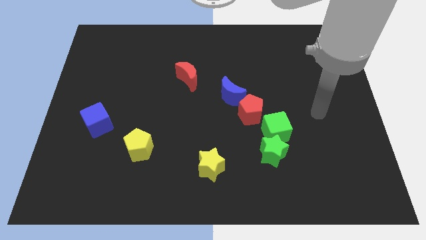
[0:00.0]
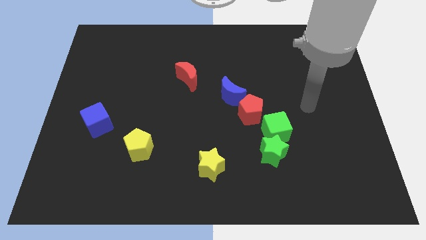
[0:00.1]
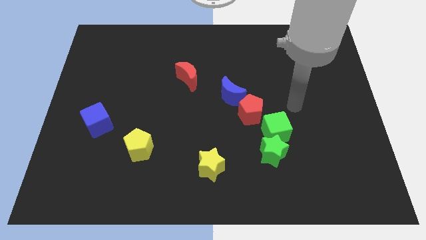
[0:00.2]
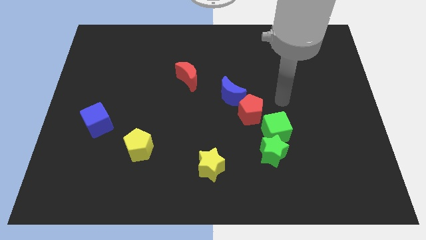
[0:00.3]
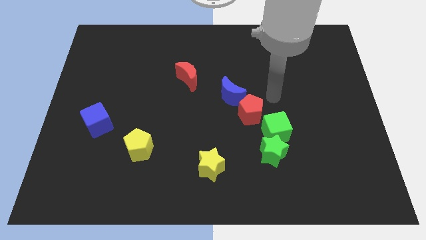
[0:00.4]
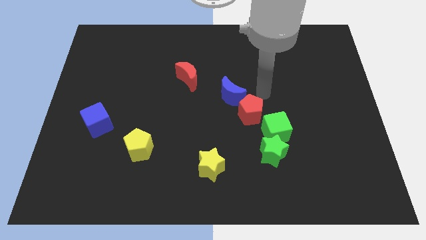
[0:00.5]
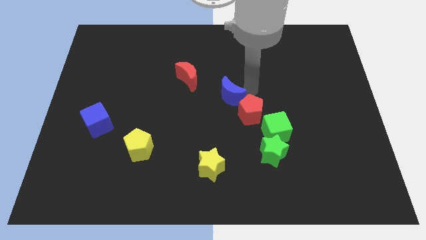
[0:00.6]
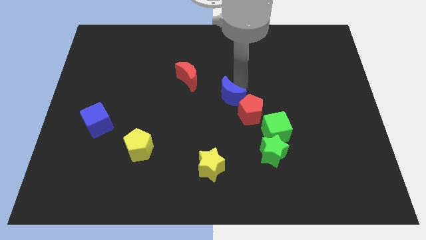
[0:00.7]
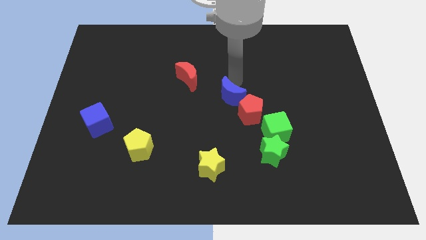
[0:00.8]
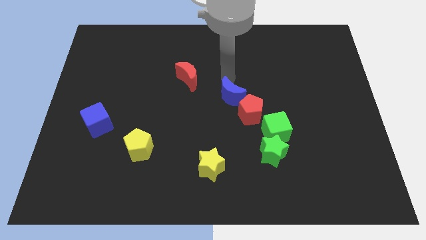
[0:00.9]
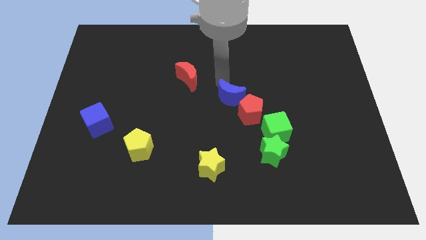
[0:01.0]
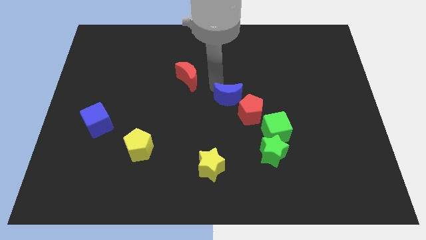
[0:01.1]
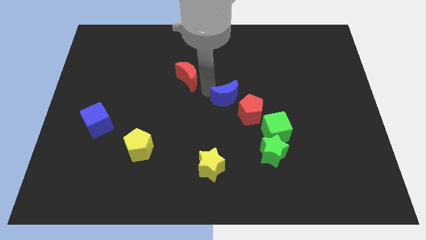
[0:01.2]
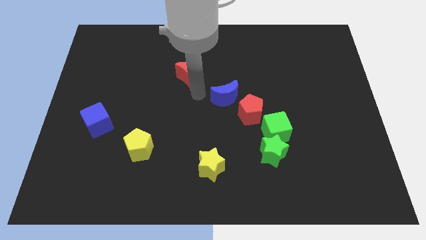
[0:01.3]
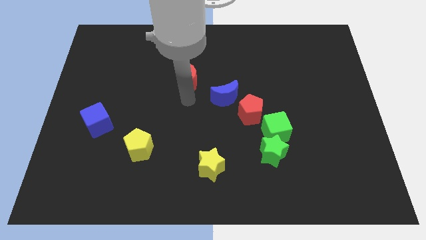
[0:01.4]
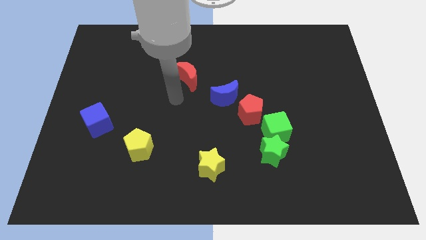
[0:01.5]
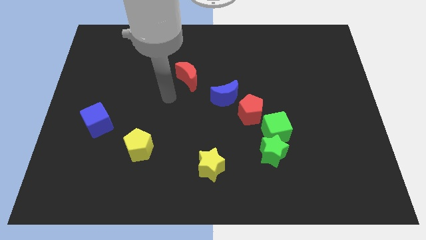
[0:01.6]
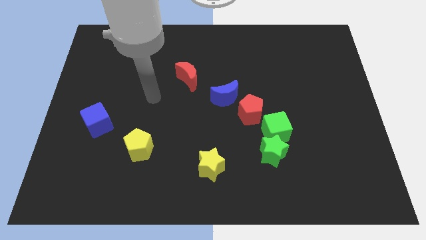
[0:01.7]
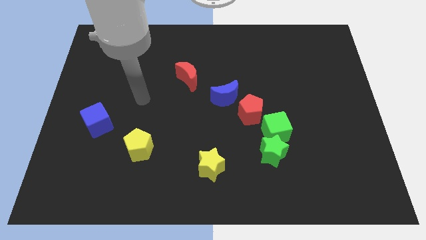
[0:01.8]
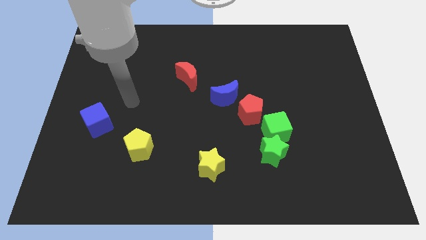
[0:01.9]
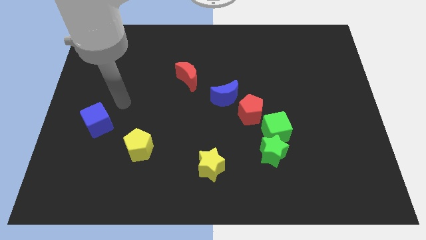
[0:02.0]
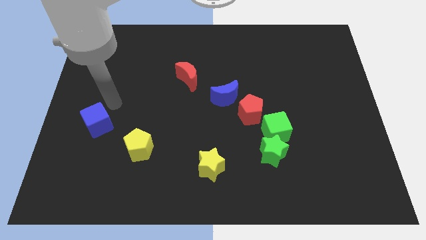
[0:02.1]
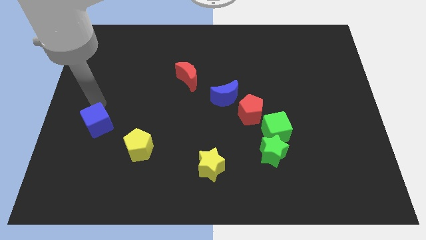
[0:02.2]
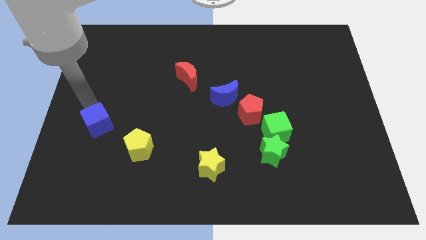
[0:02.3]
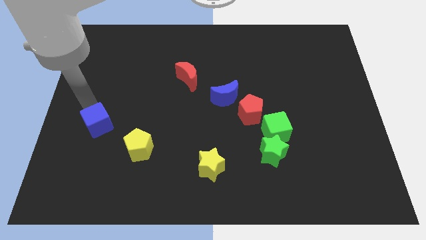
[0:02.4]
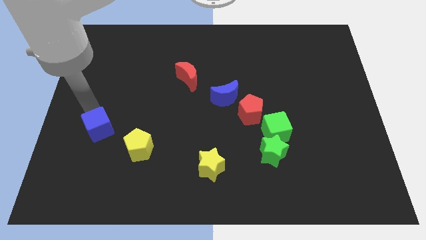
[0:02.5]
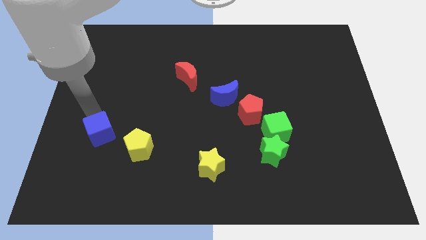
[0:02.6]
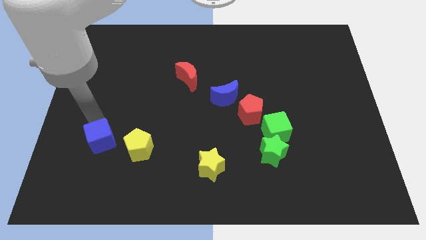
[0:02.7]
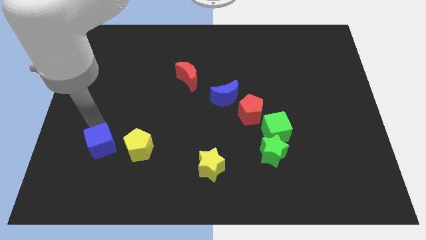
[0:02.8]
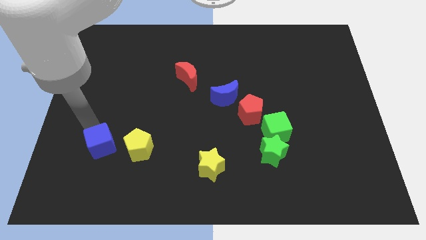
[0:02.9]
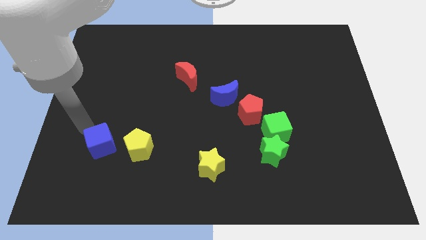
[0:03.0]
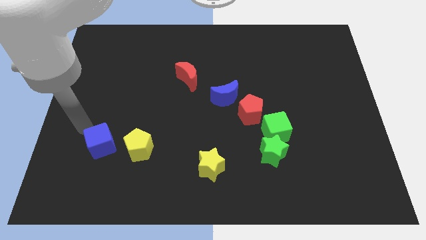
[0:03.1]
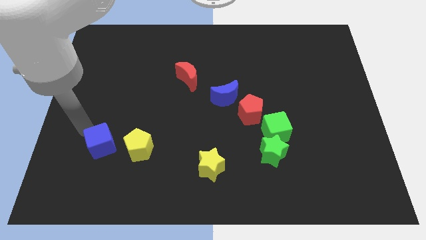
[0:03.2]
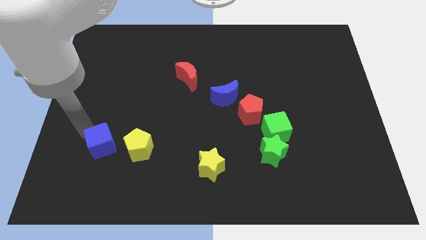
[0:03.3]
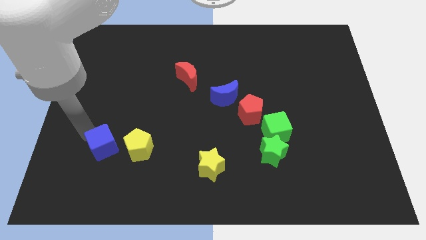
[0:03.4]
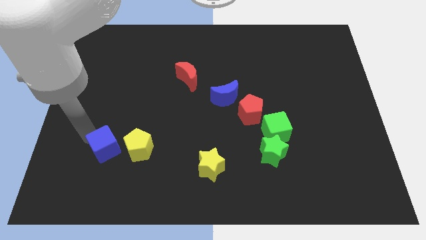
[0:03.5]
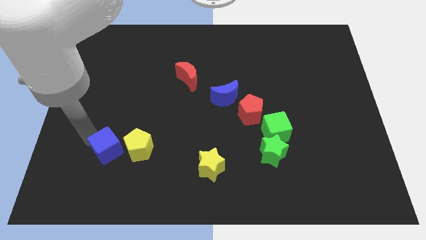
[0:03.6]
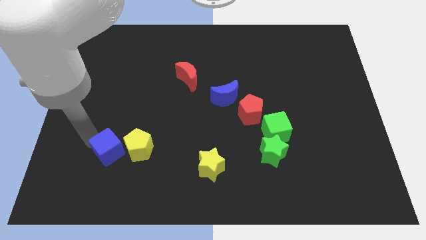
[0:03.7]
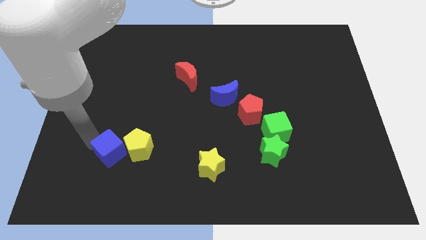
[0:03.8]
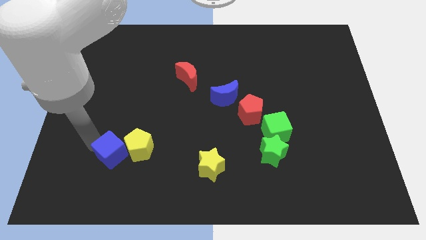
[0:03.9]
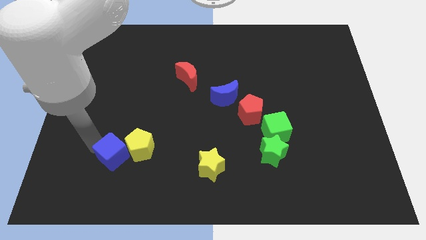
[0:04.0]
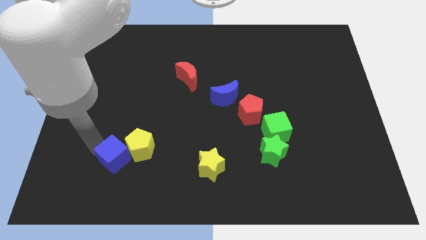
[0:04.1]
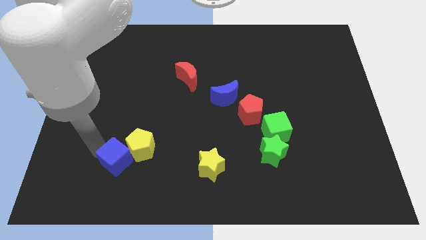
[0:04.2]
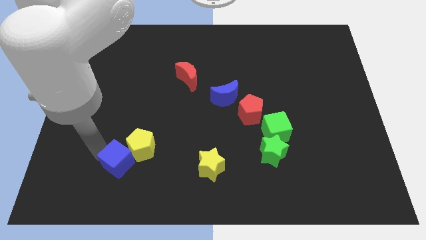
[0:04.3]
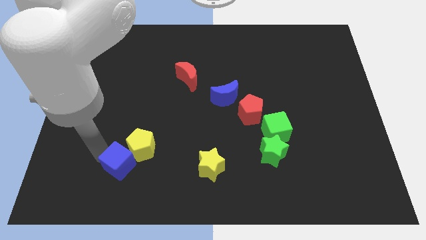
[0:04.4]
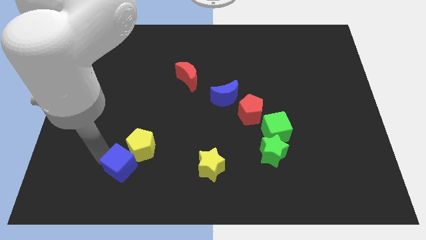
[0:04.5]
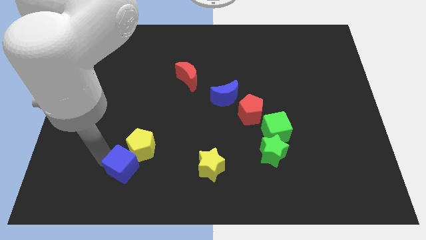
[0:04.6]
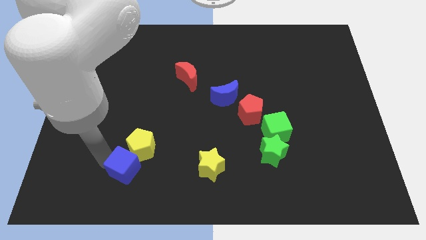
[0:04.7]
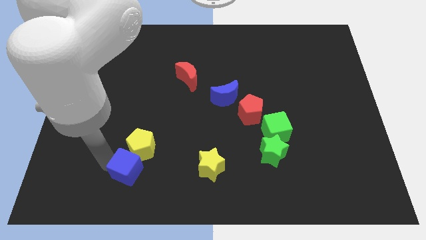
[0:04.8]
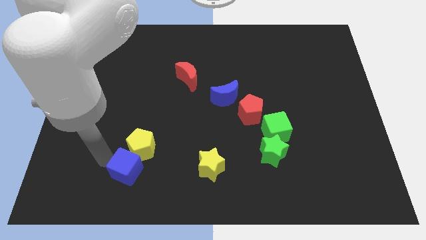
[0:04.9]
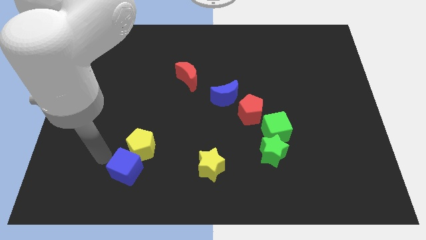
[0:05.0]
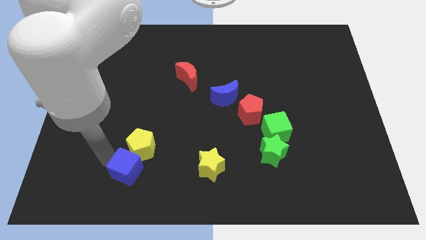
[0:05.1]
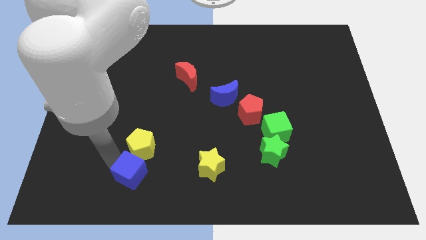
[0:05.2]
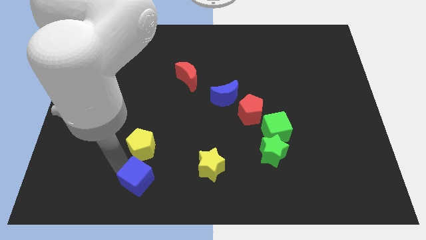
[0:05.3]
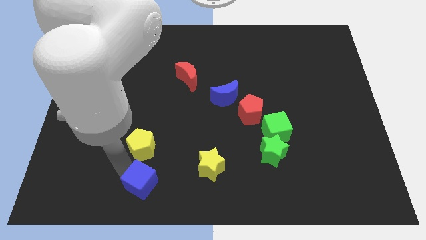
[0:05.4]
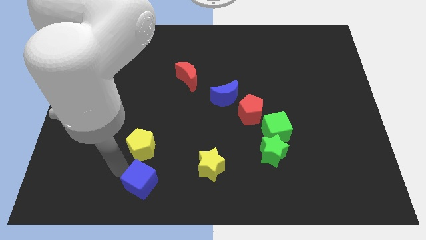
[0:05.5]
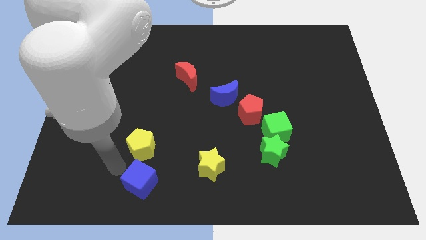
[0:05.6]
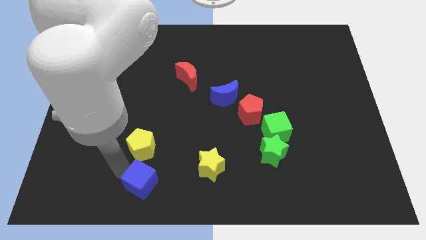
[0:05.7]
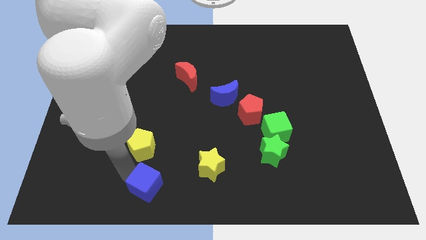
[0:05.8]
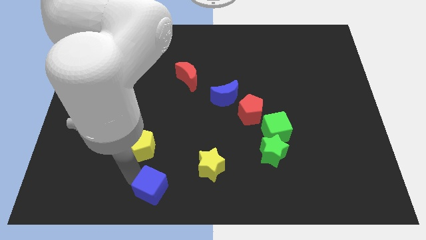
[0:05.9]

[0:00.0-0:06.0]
slide the blue cube to the bottom
